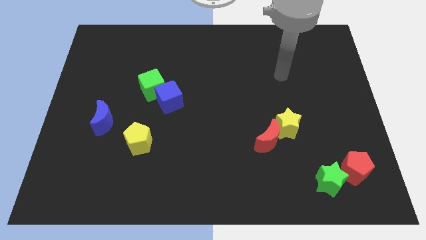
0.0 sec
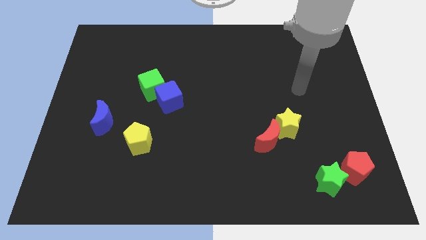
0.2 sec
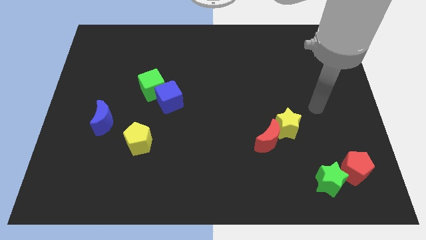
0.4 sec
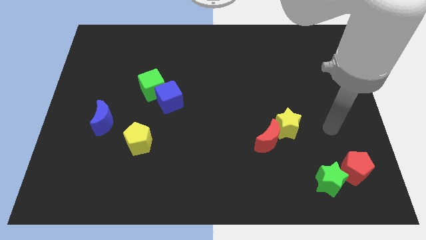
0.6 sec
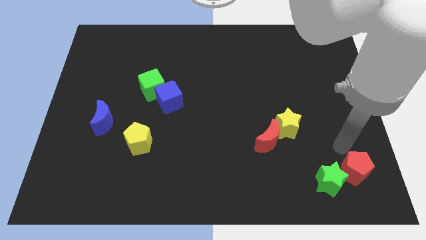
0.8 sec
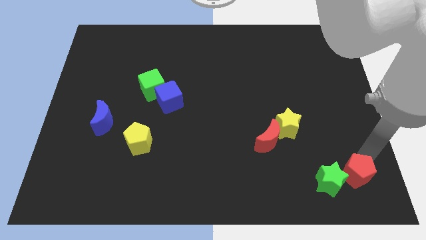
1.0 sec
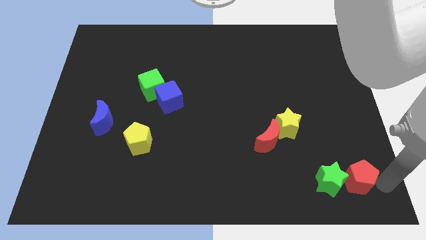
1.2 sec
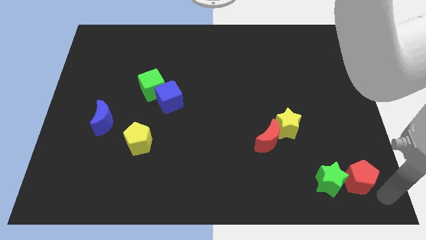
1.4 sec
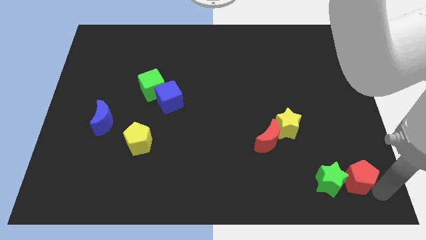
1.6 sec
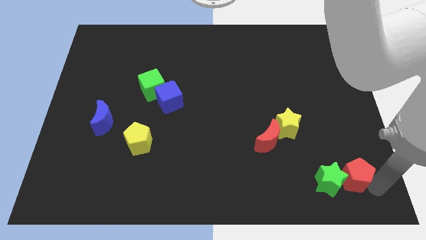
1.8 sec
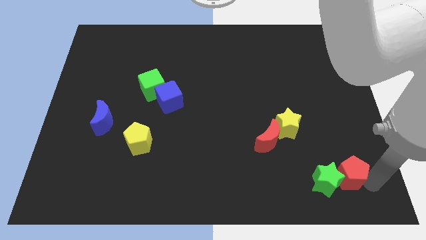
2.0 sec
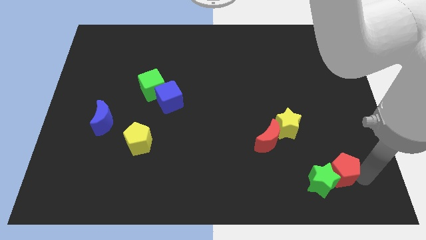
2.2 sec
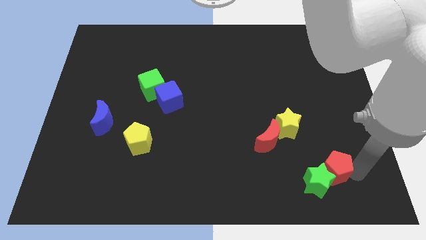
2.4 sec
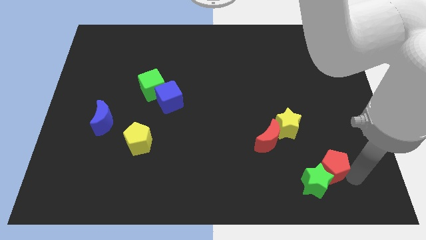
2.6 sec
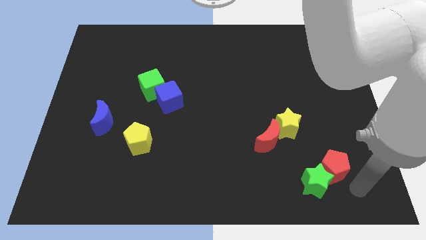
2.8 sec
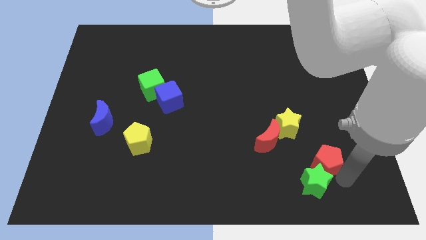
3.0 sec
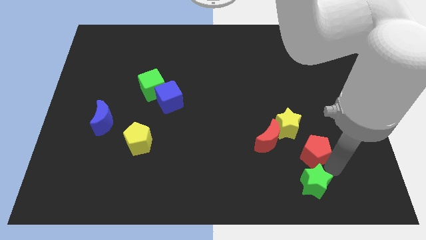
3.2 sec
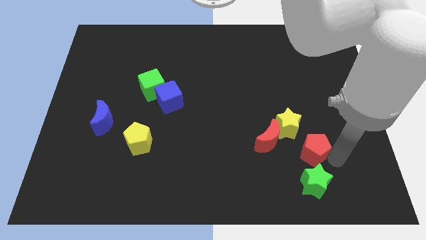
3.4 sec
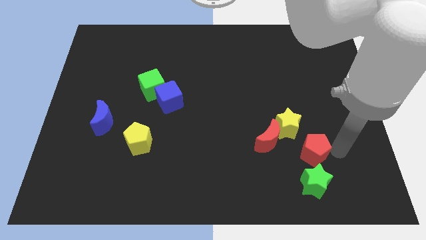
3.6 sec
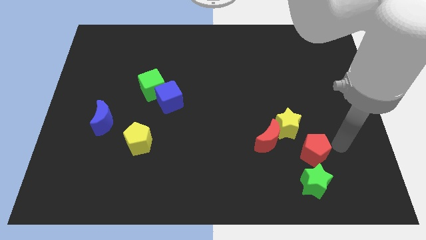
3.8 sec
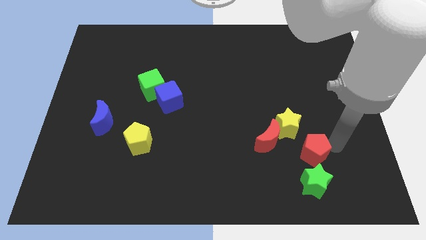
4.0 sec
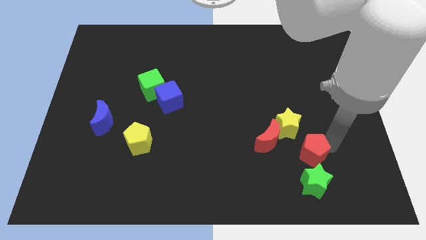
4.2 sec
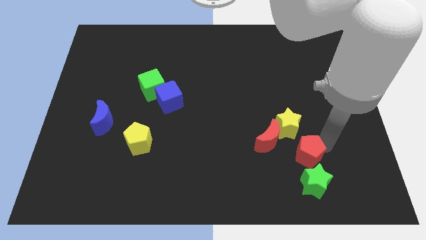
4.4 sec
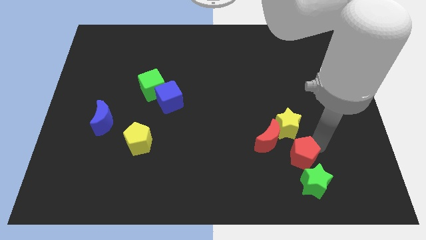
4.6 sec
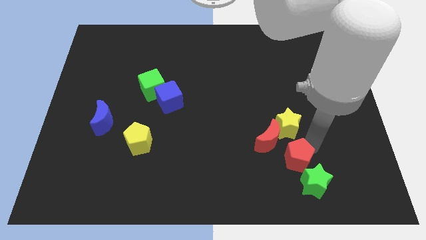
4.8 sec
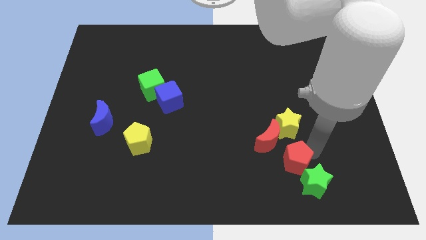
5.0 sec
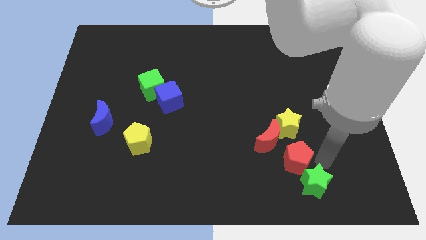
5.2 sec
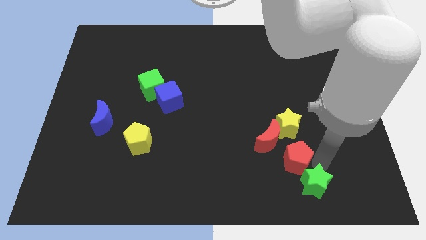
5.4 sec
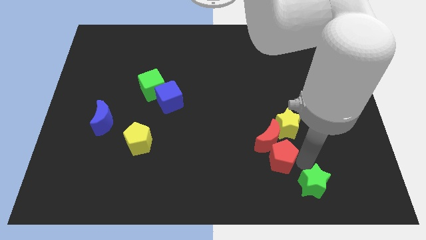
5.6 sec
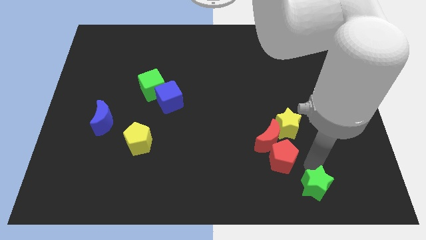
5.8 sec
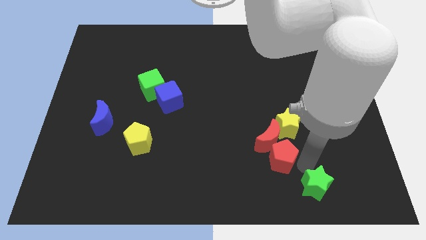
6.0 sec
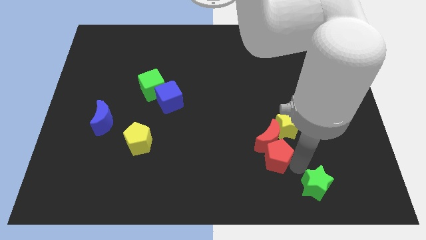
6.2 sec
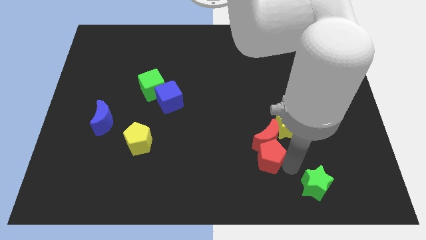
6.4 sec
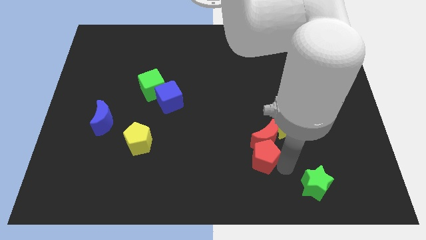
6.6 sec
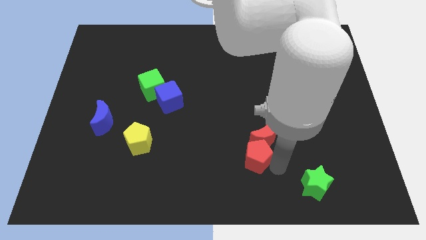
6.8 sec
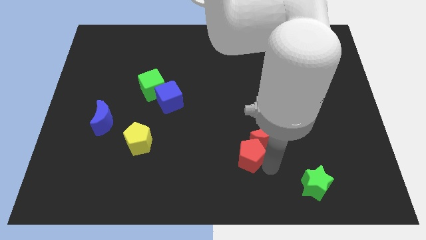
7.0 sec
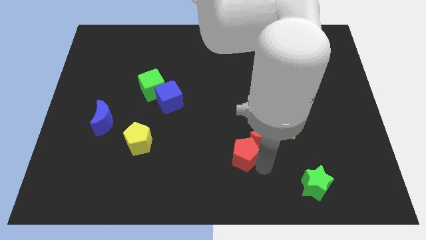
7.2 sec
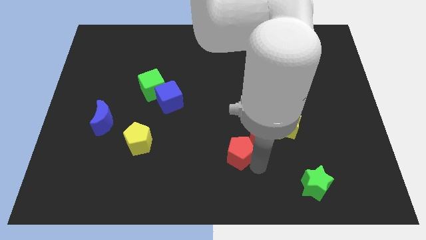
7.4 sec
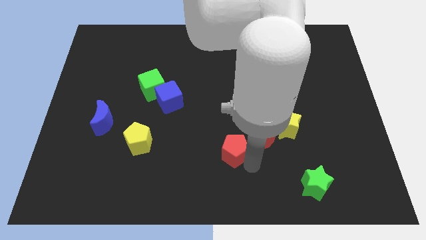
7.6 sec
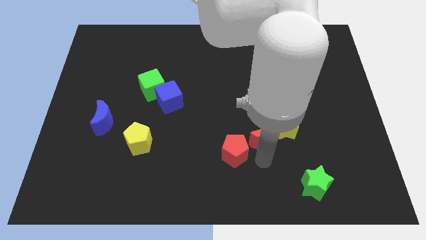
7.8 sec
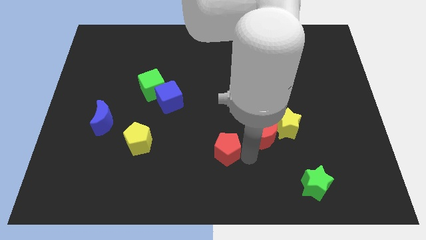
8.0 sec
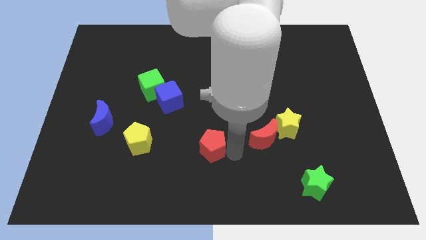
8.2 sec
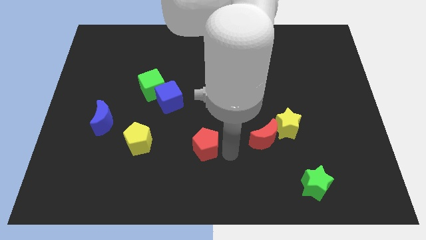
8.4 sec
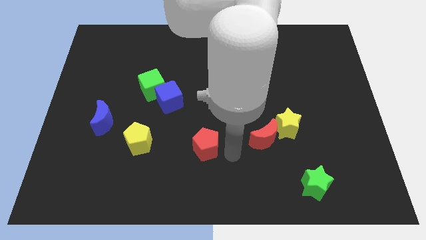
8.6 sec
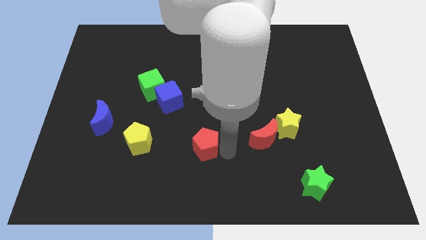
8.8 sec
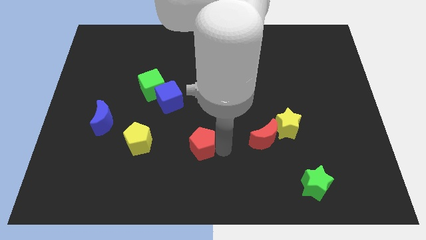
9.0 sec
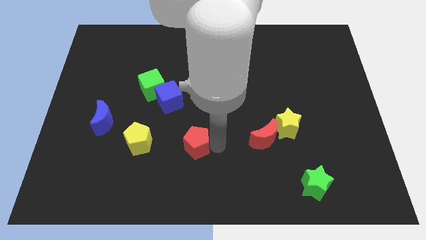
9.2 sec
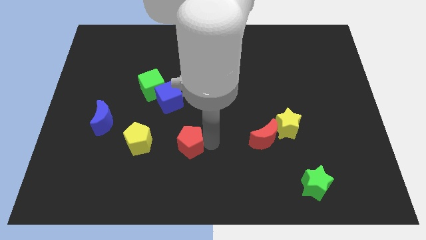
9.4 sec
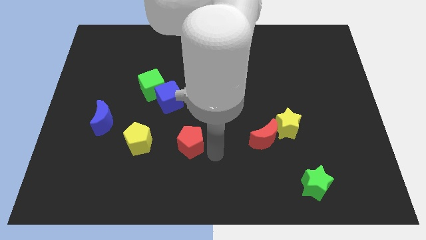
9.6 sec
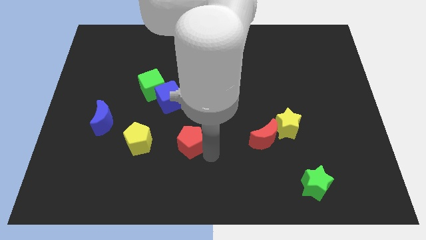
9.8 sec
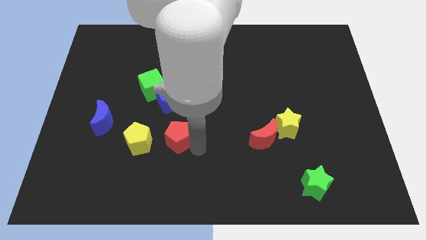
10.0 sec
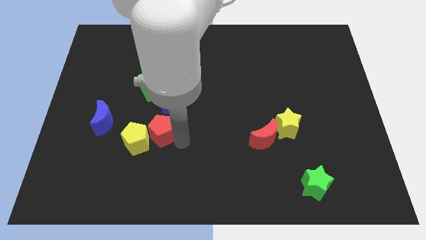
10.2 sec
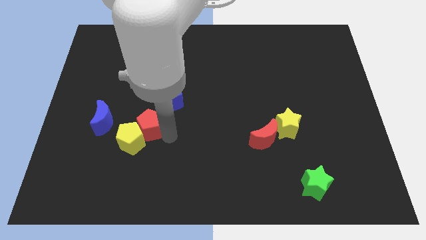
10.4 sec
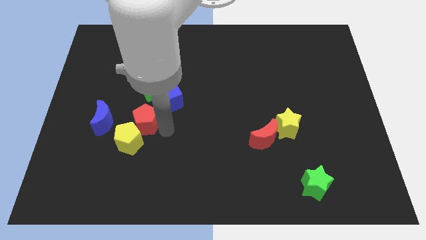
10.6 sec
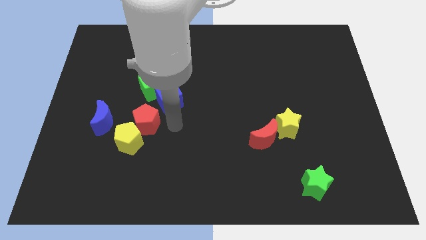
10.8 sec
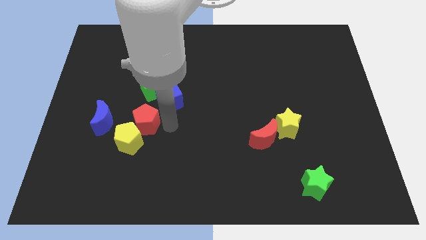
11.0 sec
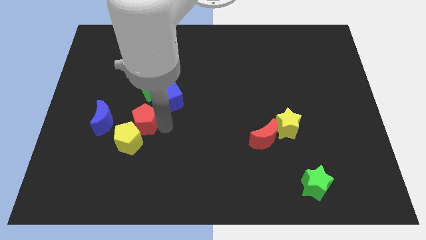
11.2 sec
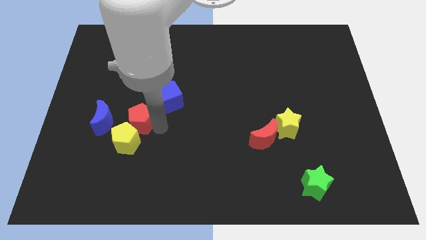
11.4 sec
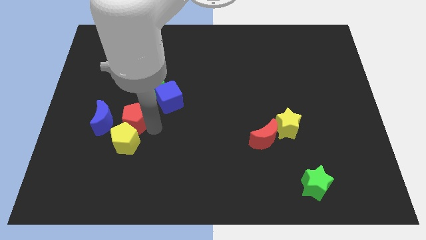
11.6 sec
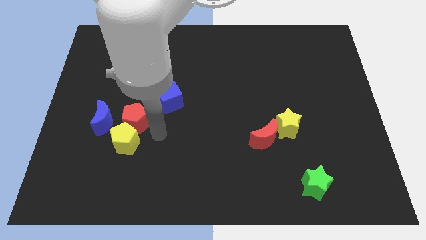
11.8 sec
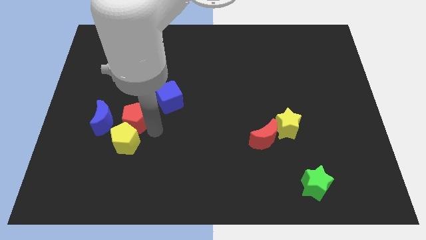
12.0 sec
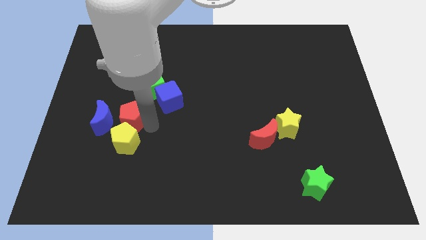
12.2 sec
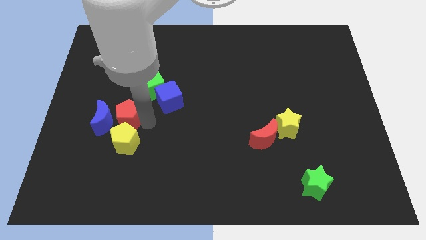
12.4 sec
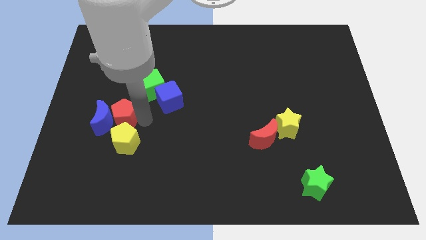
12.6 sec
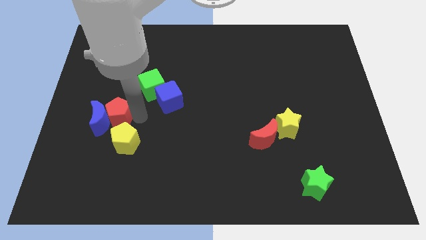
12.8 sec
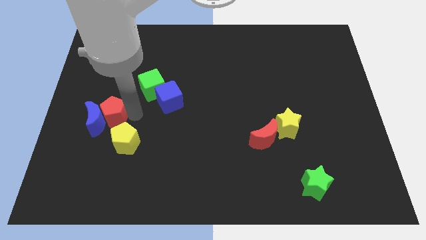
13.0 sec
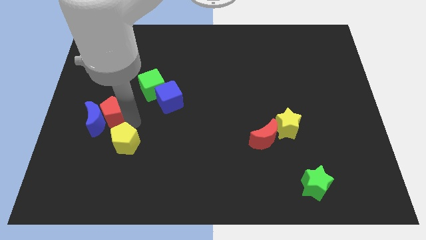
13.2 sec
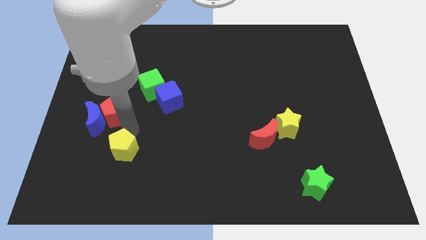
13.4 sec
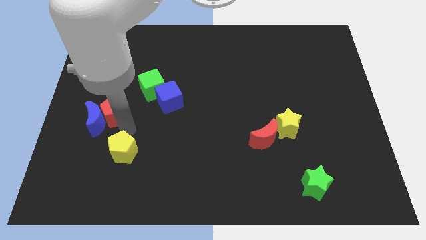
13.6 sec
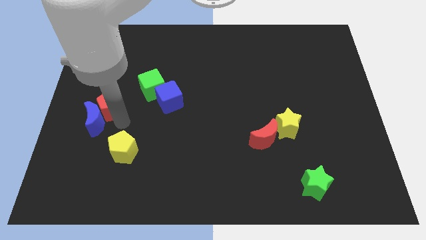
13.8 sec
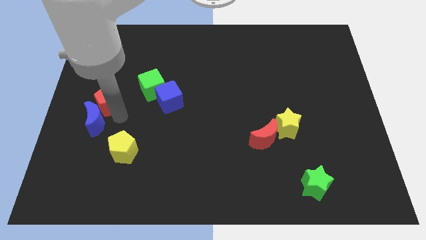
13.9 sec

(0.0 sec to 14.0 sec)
put the red pentagon to the left side
